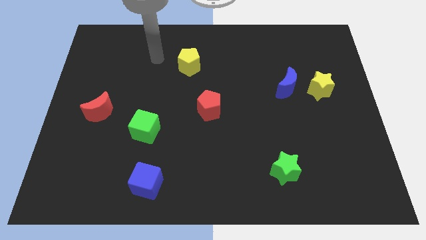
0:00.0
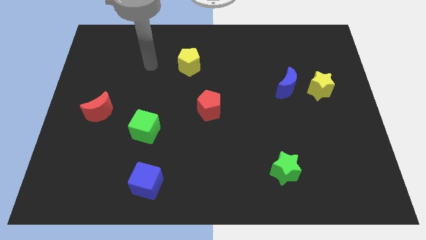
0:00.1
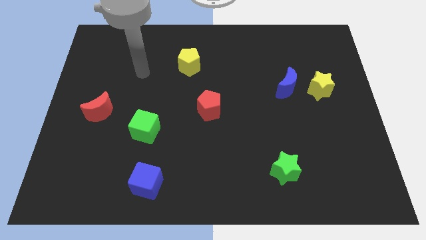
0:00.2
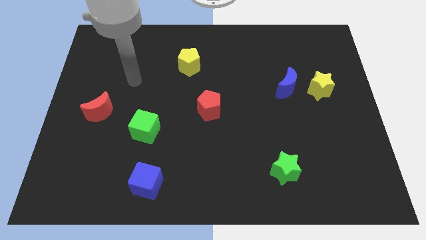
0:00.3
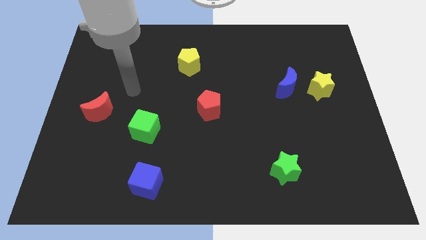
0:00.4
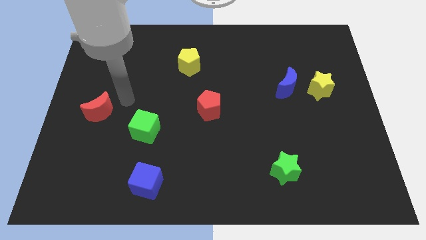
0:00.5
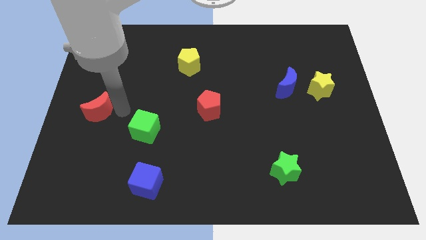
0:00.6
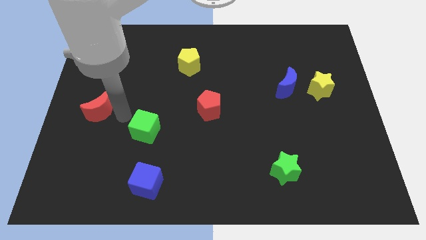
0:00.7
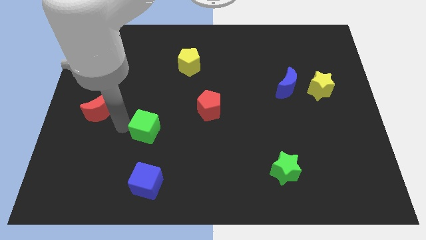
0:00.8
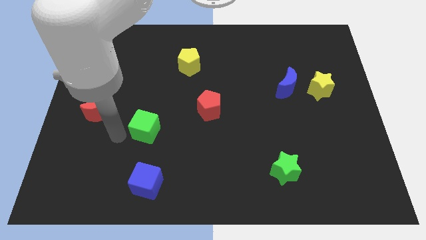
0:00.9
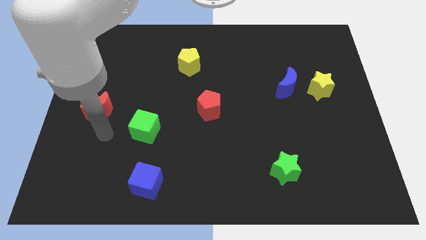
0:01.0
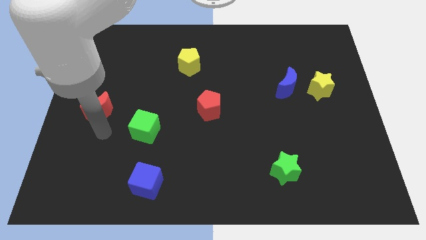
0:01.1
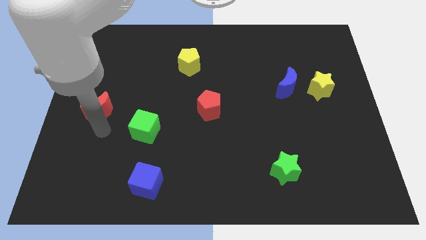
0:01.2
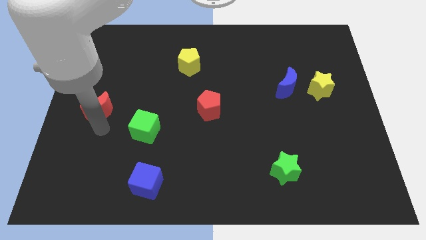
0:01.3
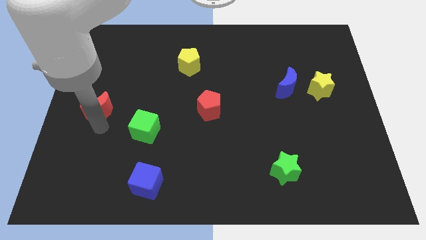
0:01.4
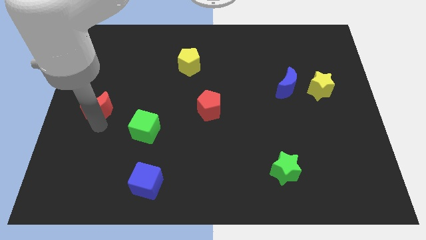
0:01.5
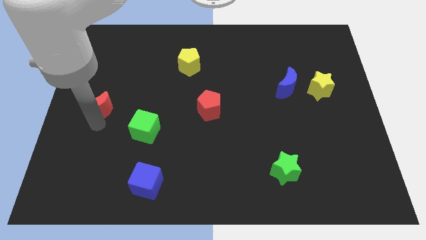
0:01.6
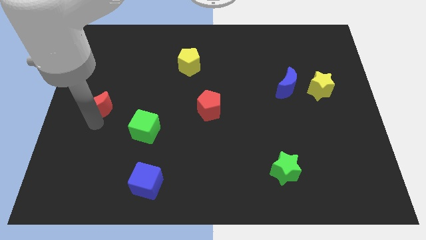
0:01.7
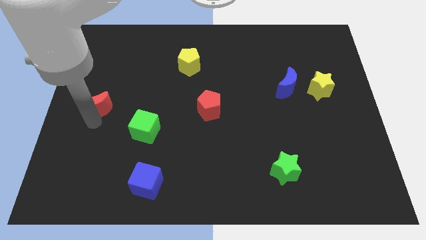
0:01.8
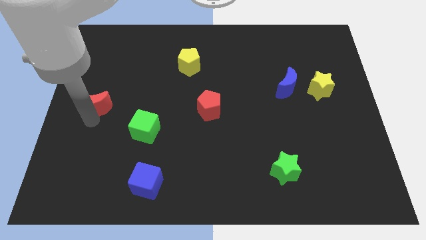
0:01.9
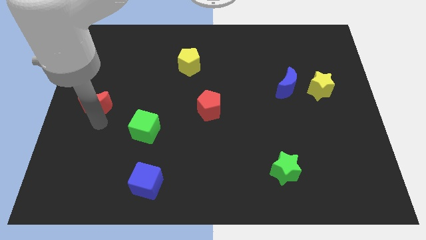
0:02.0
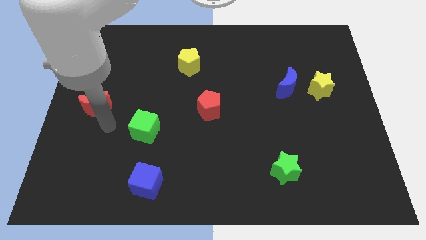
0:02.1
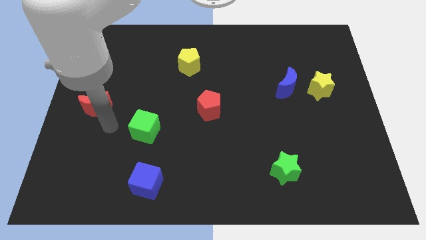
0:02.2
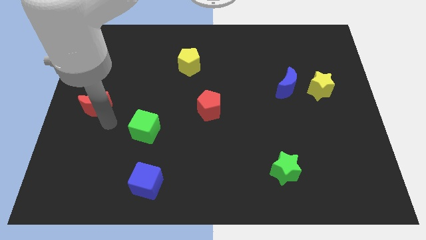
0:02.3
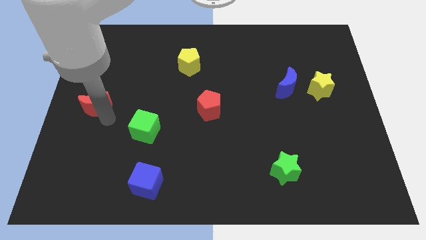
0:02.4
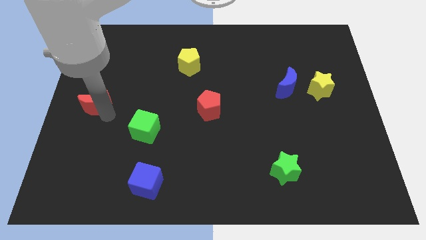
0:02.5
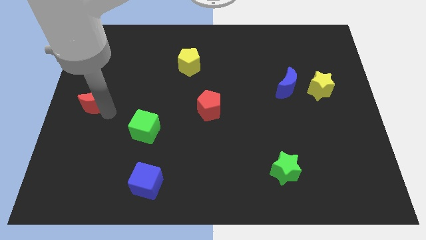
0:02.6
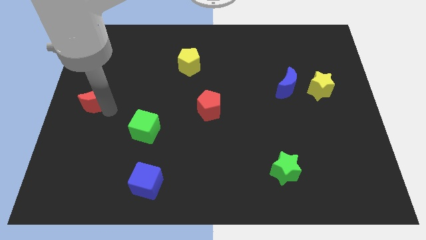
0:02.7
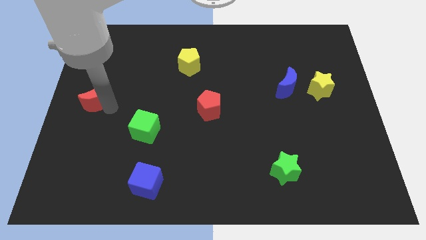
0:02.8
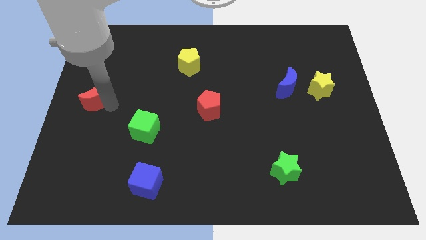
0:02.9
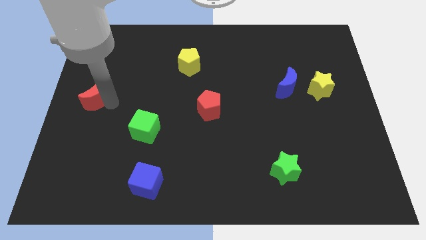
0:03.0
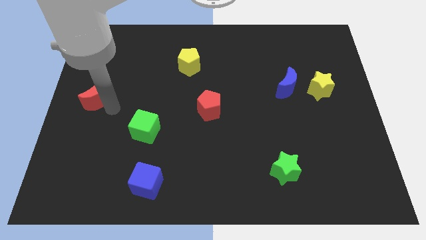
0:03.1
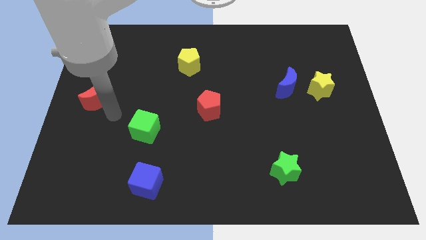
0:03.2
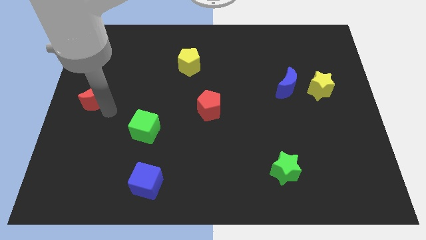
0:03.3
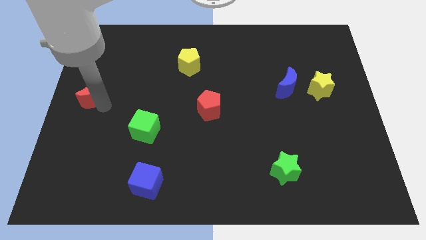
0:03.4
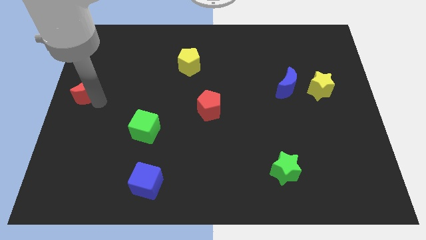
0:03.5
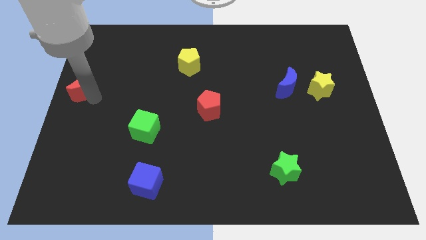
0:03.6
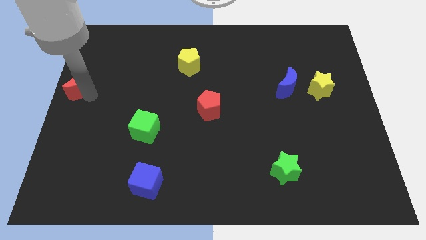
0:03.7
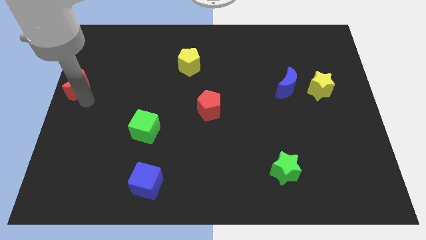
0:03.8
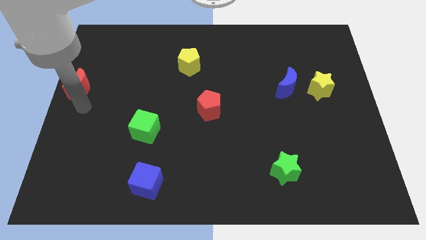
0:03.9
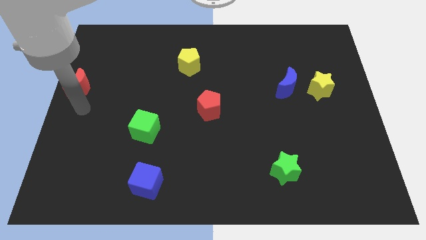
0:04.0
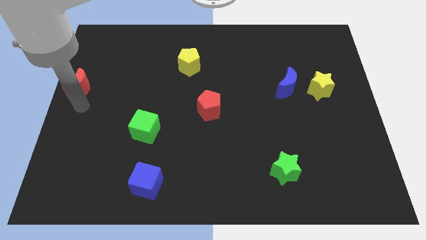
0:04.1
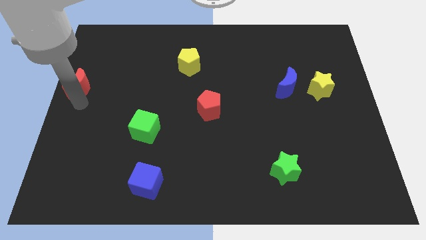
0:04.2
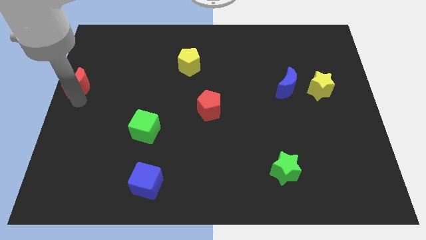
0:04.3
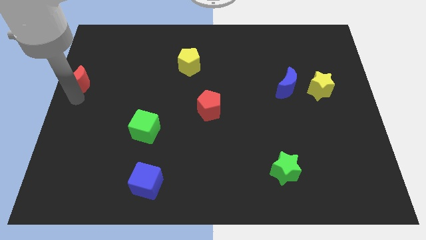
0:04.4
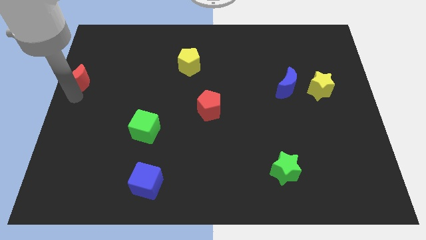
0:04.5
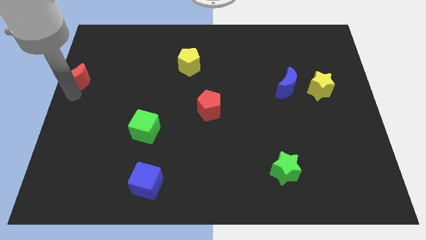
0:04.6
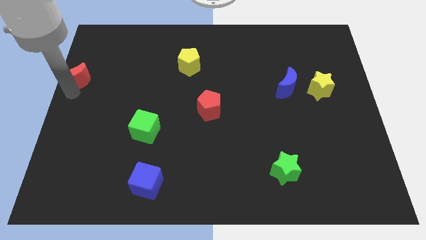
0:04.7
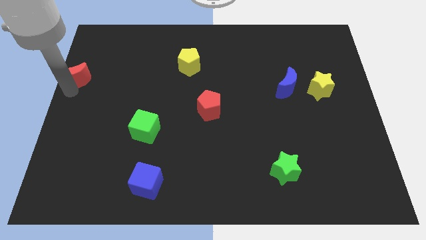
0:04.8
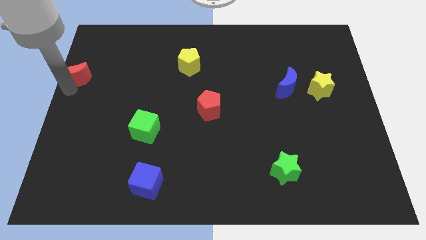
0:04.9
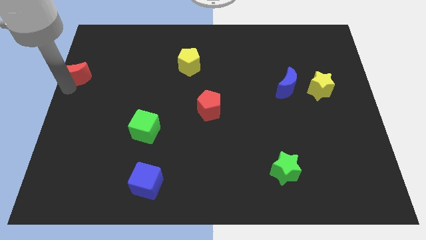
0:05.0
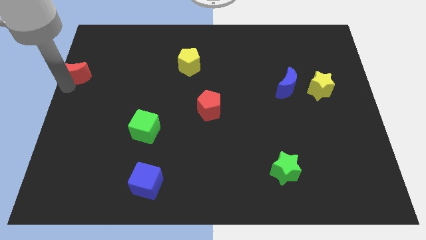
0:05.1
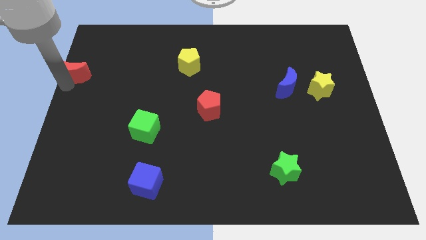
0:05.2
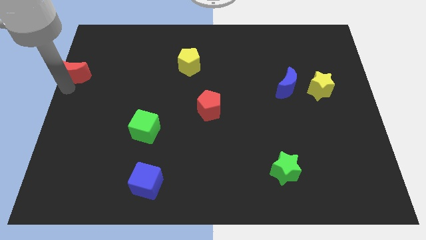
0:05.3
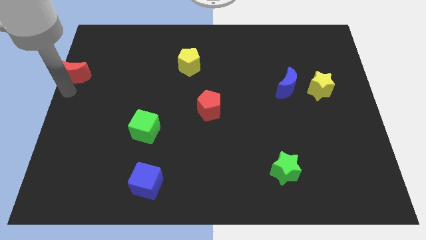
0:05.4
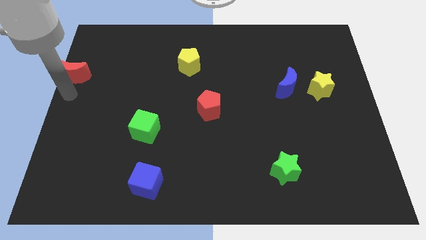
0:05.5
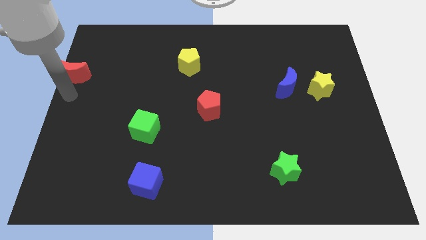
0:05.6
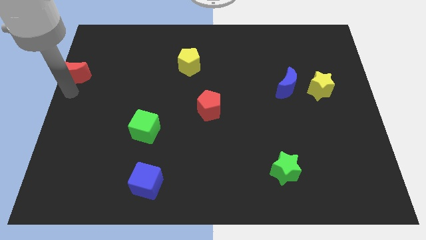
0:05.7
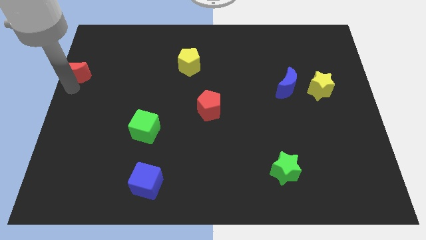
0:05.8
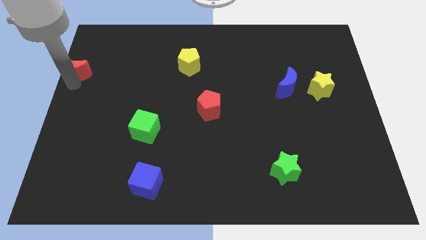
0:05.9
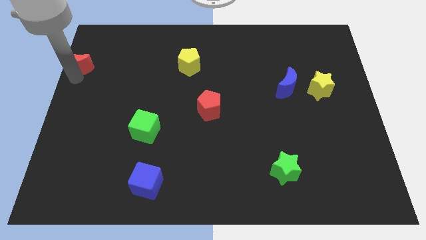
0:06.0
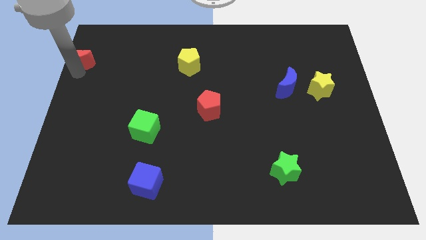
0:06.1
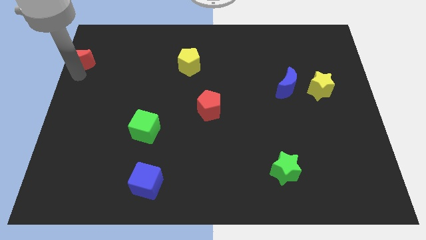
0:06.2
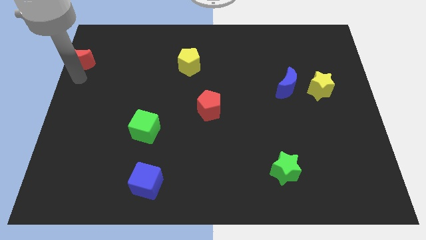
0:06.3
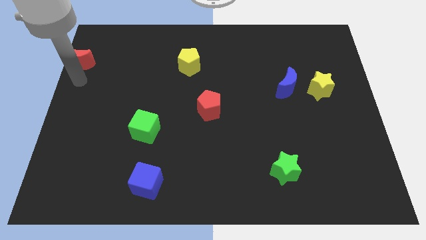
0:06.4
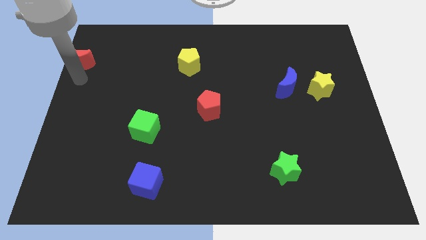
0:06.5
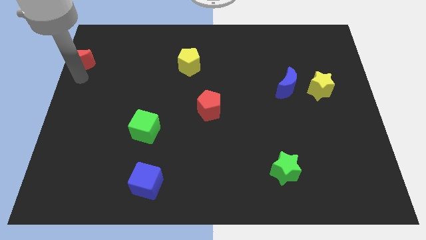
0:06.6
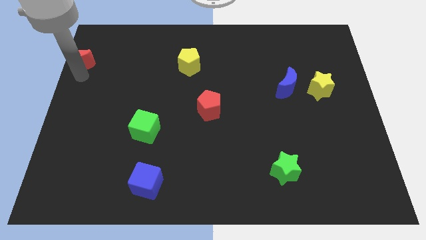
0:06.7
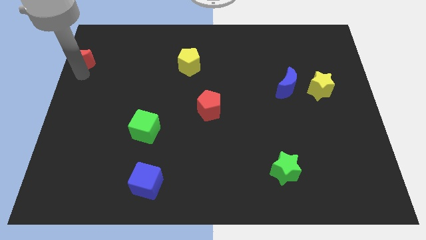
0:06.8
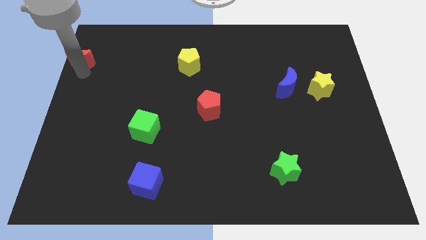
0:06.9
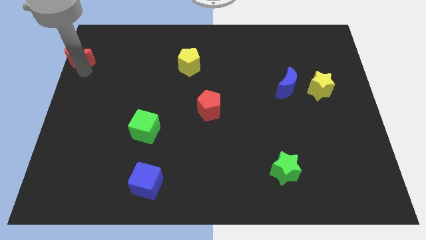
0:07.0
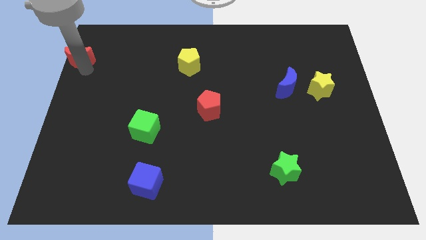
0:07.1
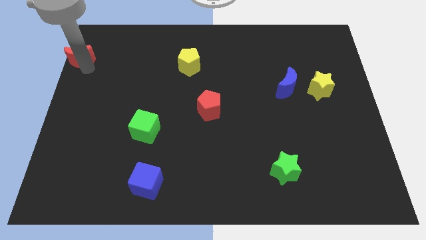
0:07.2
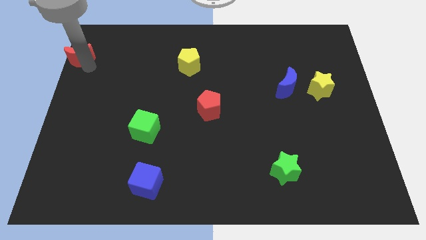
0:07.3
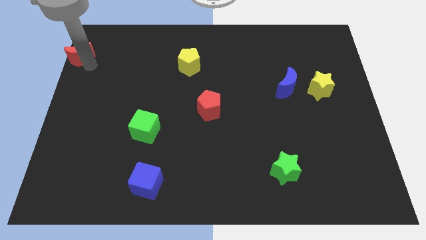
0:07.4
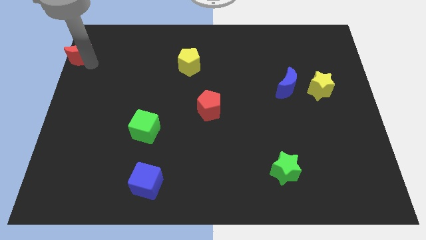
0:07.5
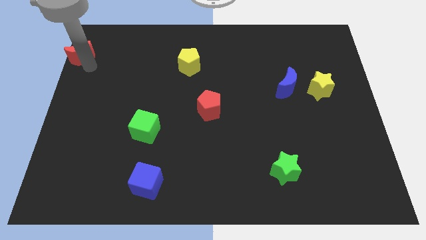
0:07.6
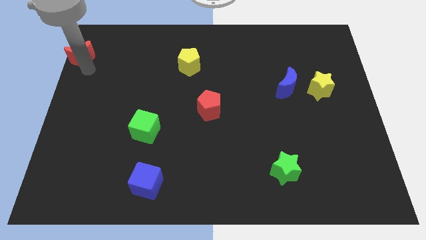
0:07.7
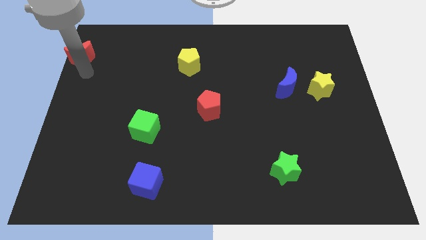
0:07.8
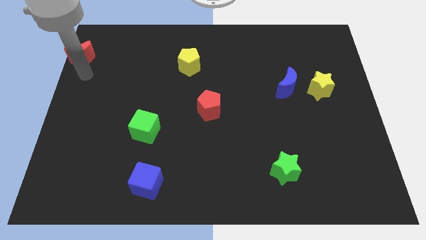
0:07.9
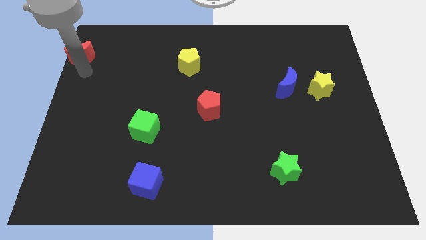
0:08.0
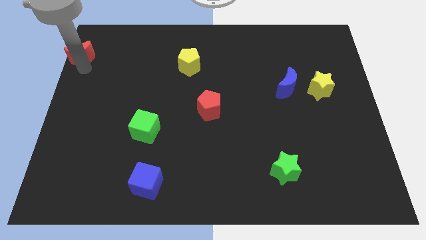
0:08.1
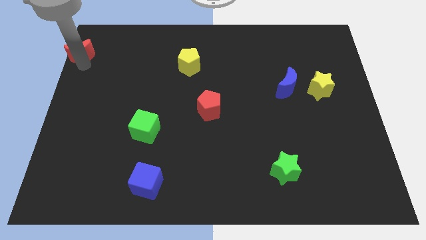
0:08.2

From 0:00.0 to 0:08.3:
push the red moon to the upper left corner
